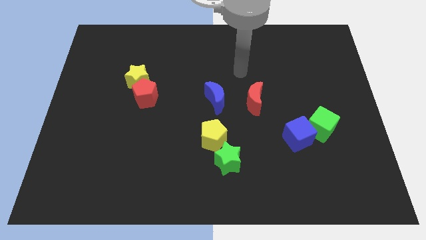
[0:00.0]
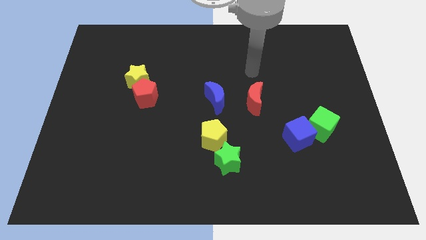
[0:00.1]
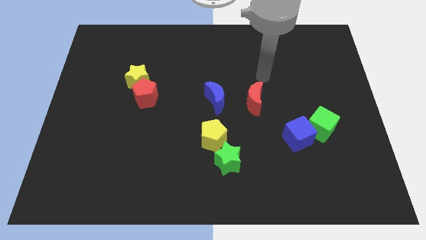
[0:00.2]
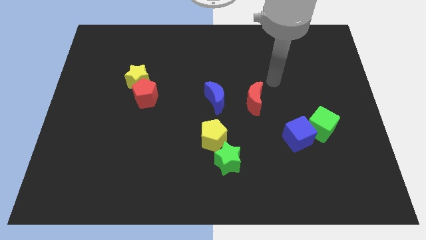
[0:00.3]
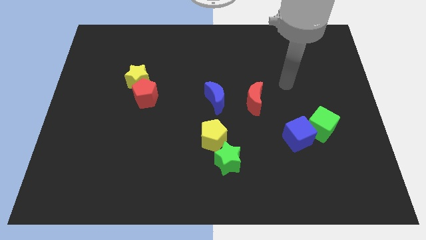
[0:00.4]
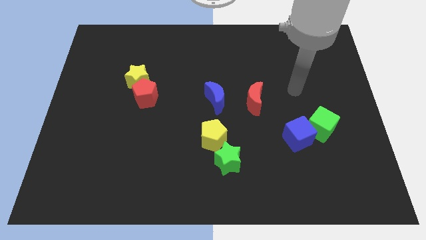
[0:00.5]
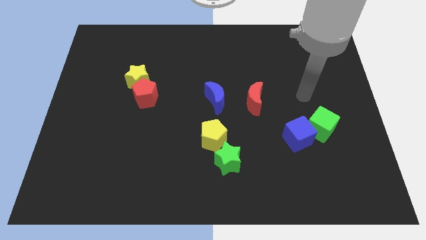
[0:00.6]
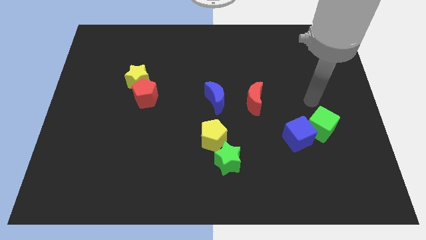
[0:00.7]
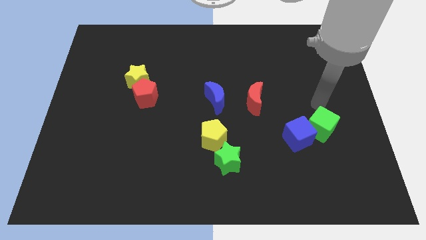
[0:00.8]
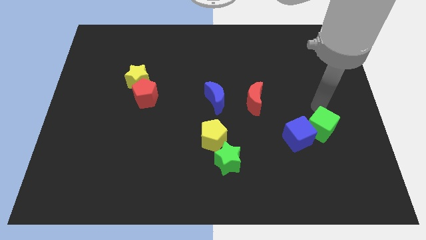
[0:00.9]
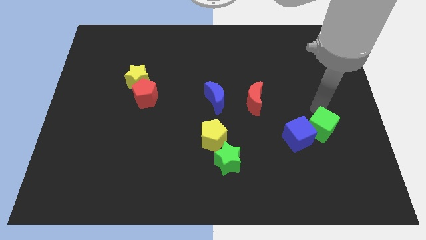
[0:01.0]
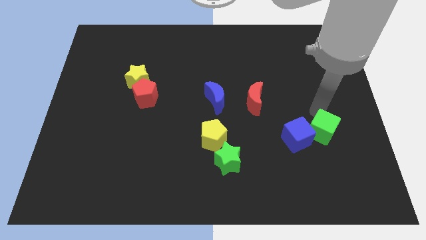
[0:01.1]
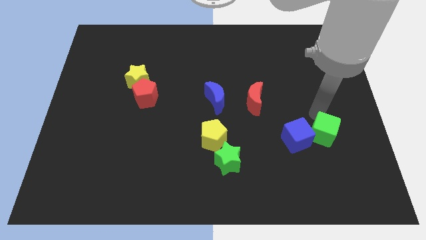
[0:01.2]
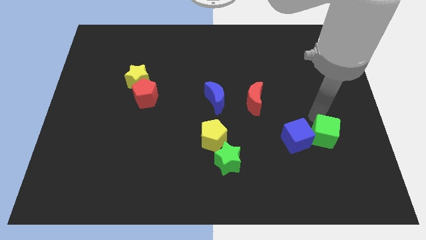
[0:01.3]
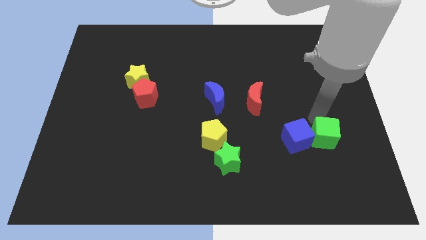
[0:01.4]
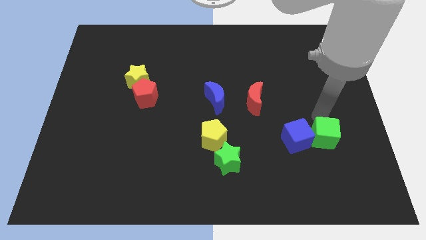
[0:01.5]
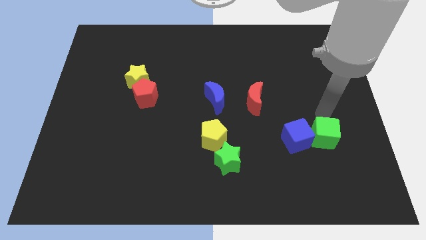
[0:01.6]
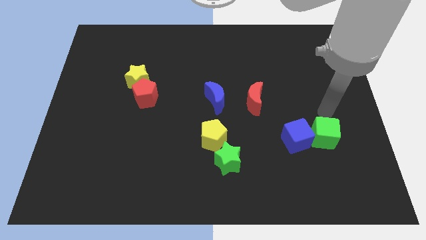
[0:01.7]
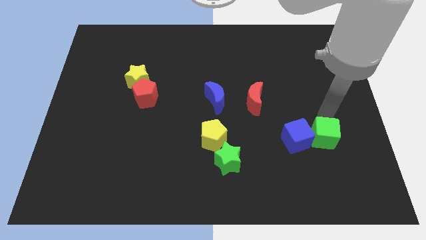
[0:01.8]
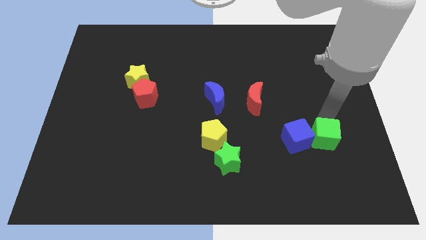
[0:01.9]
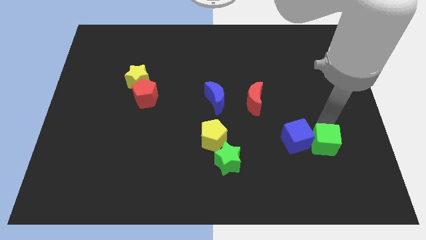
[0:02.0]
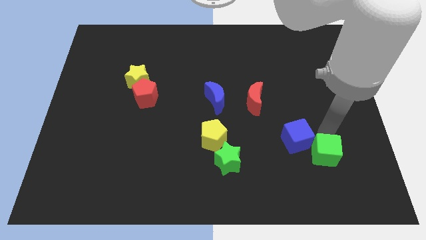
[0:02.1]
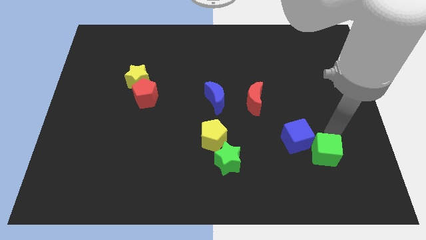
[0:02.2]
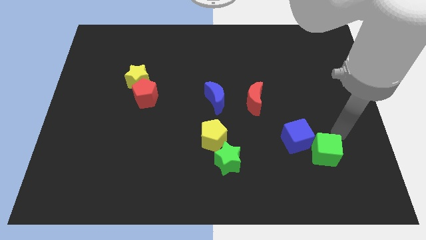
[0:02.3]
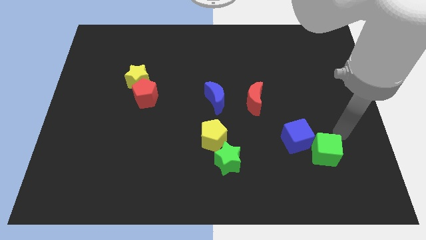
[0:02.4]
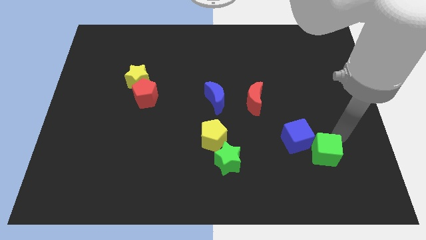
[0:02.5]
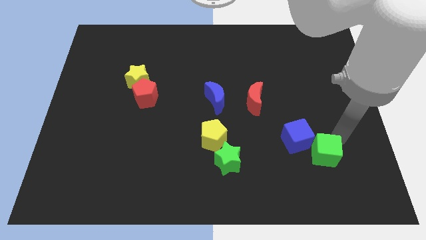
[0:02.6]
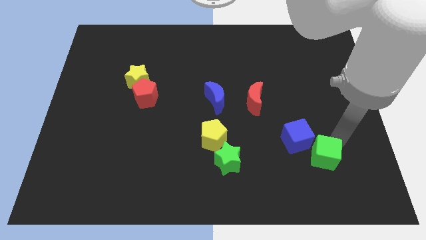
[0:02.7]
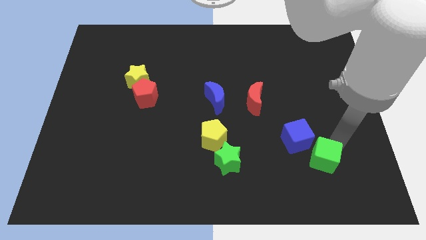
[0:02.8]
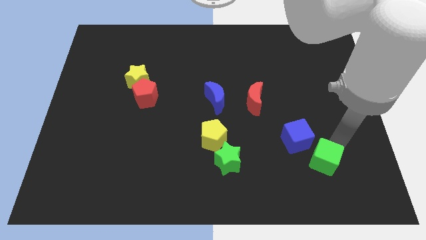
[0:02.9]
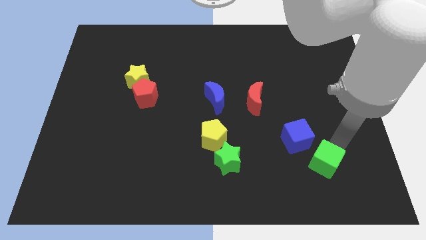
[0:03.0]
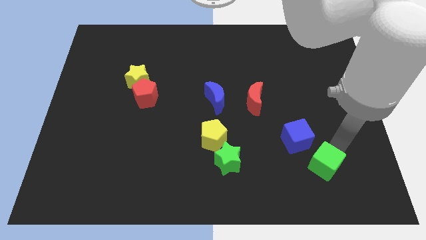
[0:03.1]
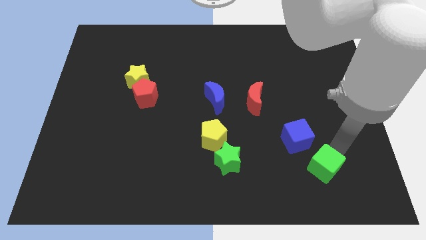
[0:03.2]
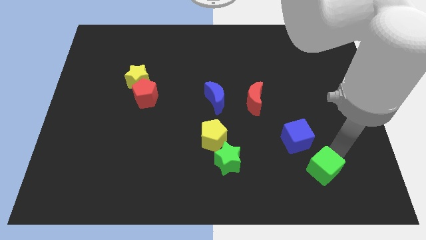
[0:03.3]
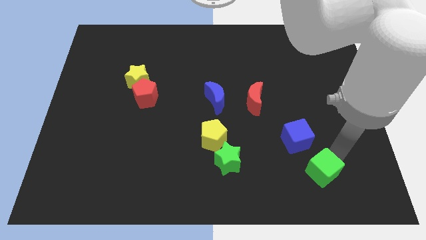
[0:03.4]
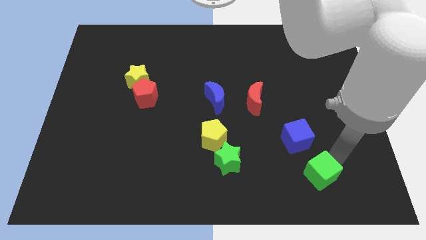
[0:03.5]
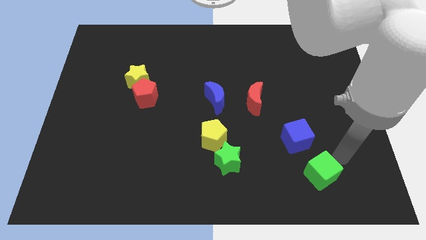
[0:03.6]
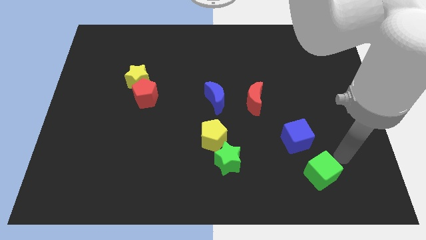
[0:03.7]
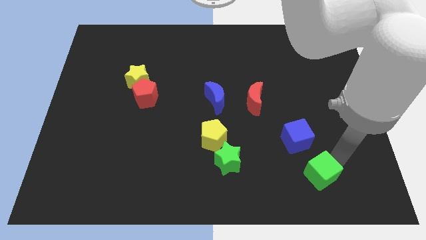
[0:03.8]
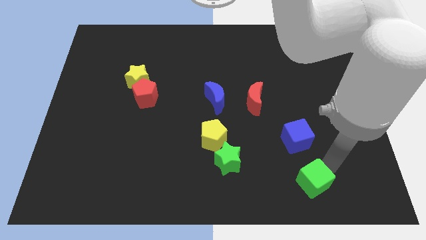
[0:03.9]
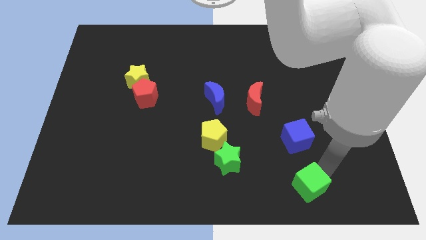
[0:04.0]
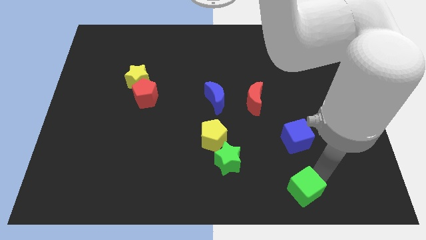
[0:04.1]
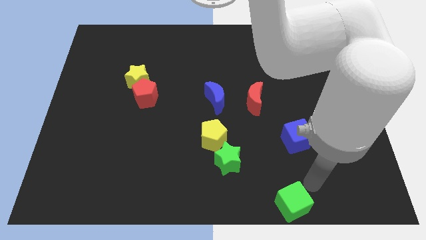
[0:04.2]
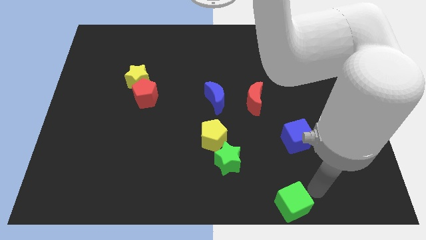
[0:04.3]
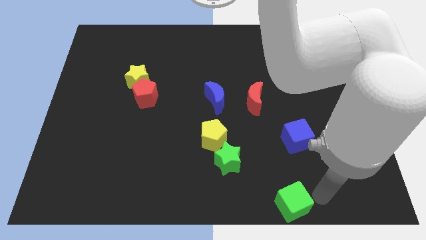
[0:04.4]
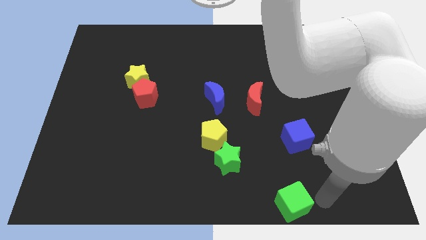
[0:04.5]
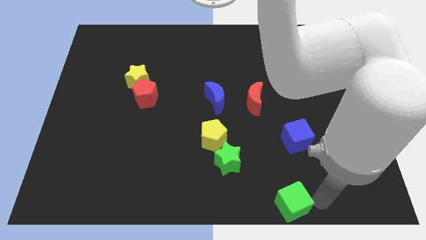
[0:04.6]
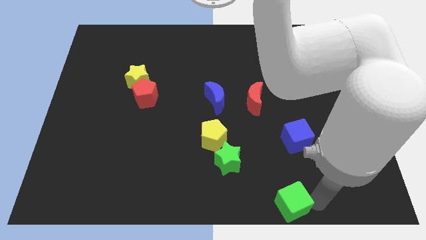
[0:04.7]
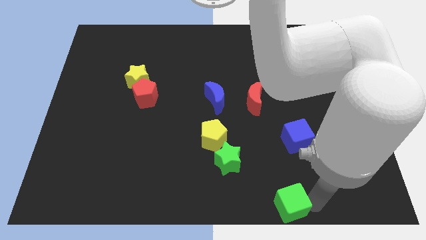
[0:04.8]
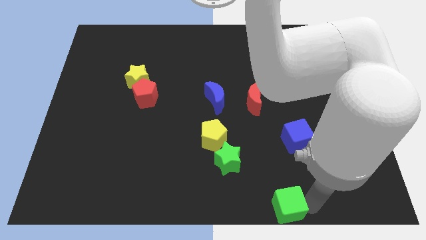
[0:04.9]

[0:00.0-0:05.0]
put the green cube to the bottom

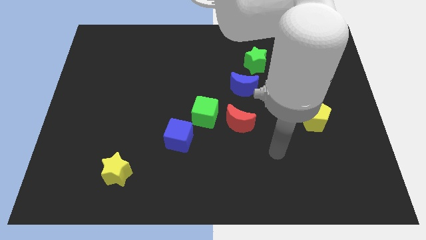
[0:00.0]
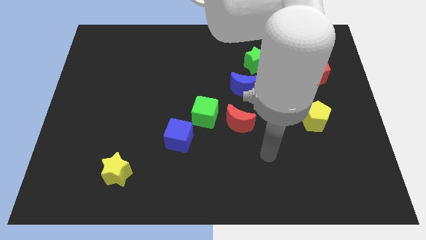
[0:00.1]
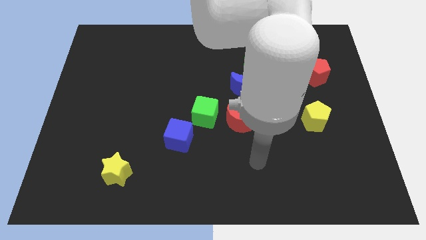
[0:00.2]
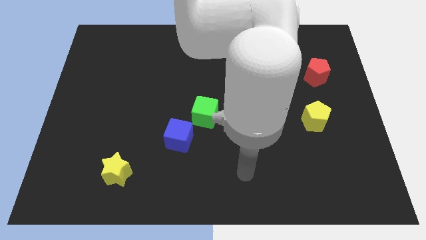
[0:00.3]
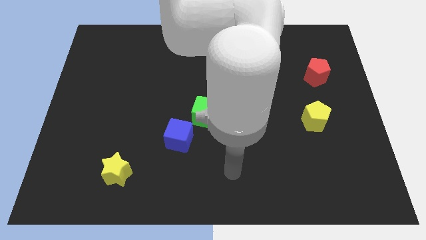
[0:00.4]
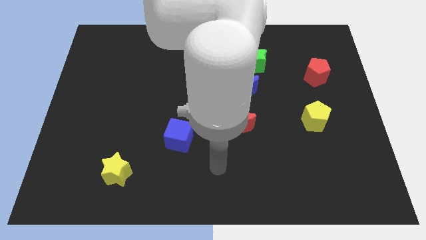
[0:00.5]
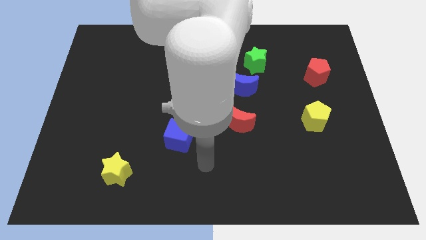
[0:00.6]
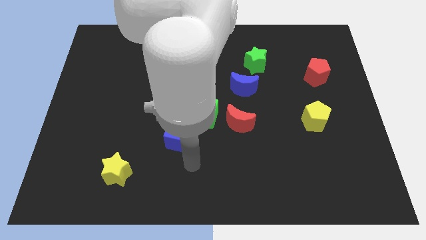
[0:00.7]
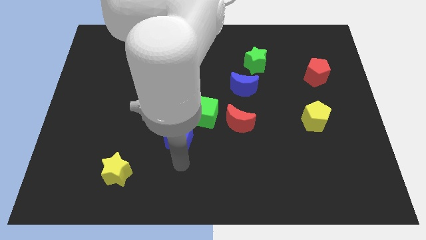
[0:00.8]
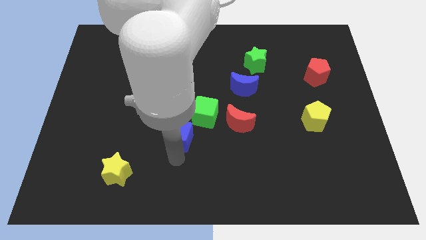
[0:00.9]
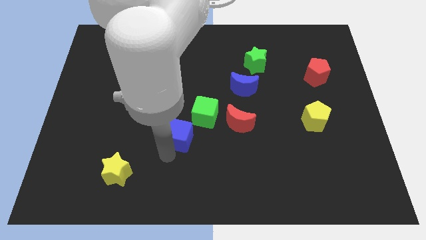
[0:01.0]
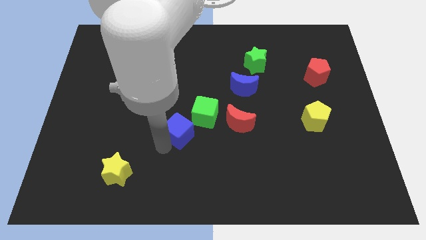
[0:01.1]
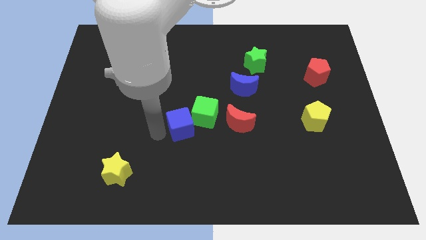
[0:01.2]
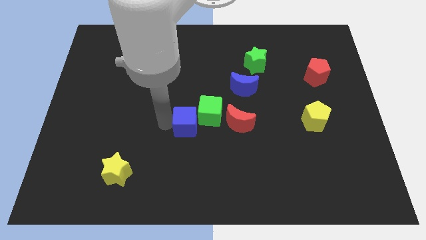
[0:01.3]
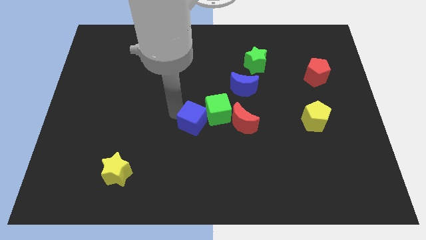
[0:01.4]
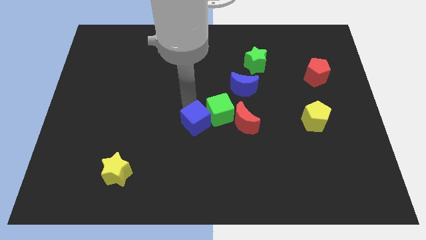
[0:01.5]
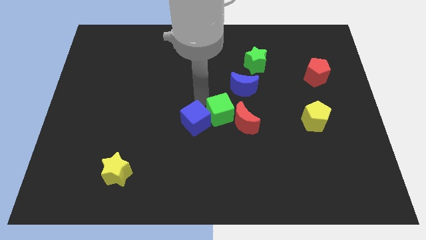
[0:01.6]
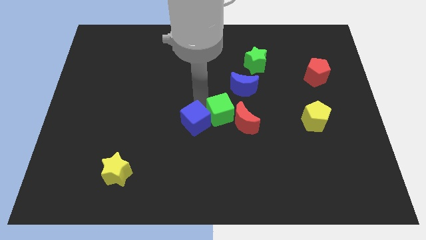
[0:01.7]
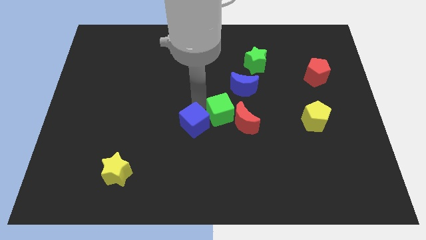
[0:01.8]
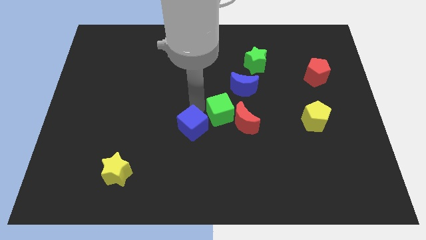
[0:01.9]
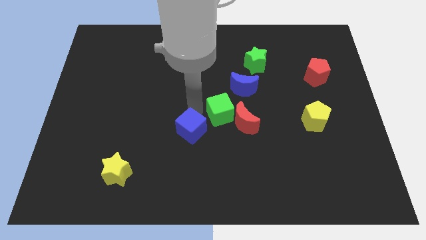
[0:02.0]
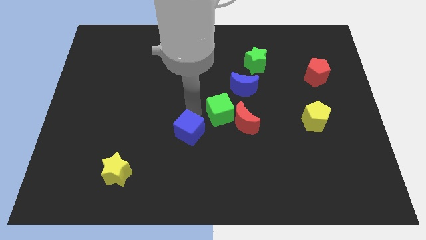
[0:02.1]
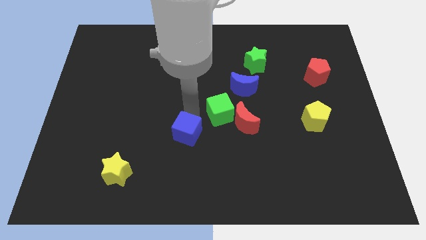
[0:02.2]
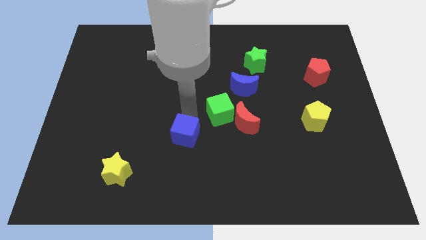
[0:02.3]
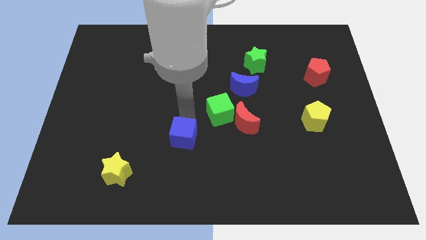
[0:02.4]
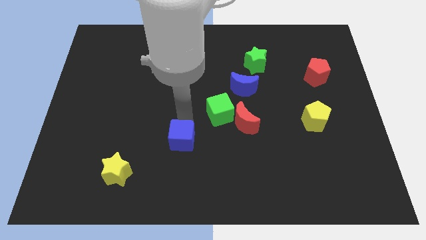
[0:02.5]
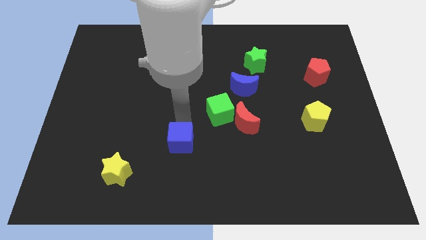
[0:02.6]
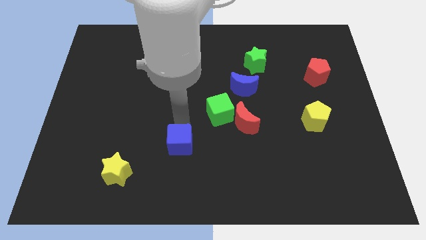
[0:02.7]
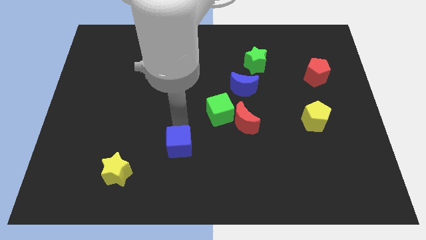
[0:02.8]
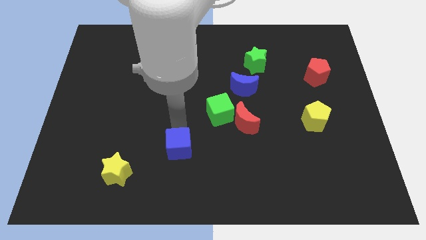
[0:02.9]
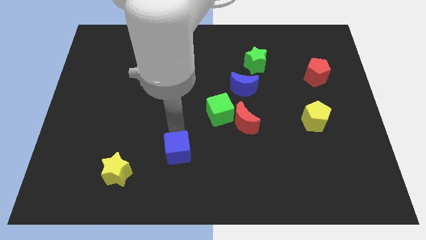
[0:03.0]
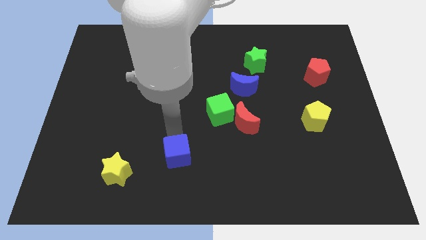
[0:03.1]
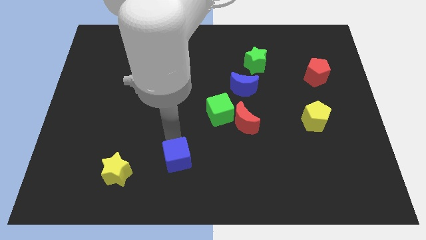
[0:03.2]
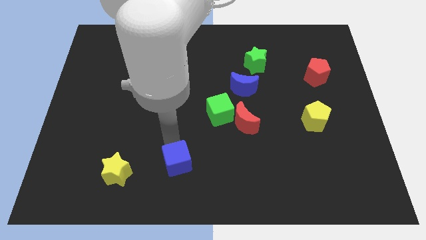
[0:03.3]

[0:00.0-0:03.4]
move the blue cube to the bottom
